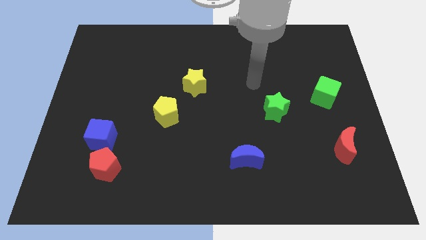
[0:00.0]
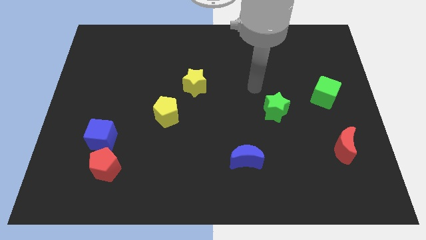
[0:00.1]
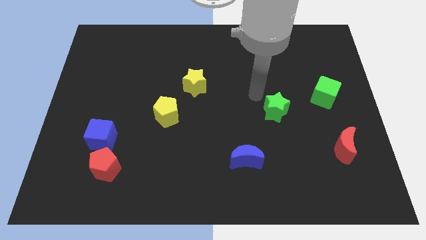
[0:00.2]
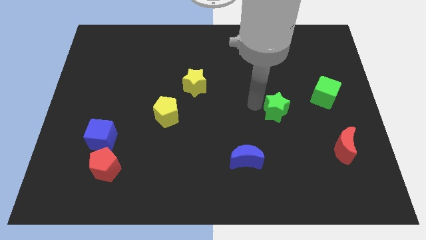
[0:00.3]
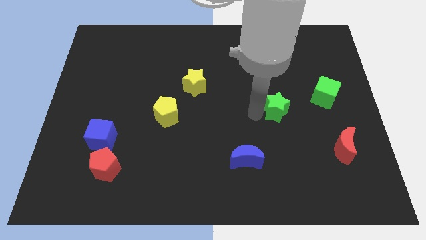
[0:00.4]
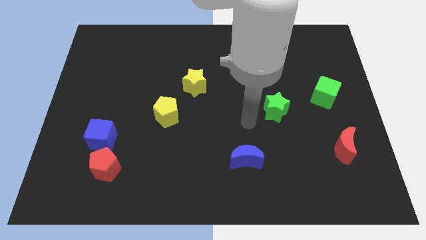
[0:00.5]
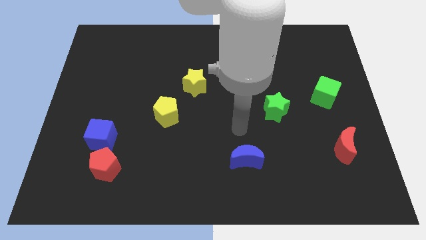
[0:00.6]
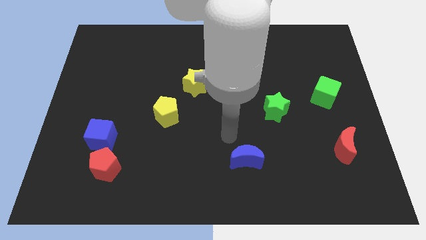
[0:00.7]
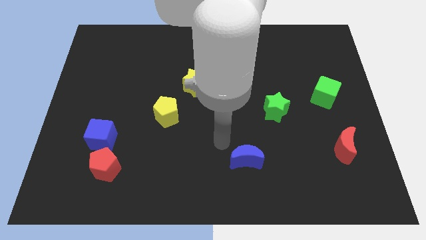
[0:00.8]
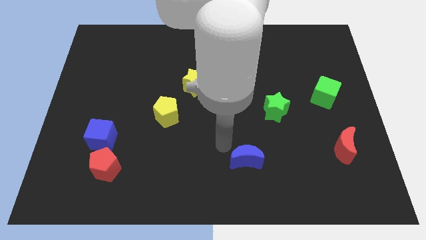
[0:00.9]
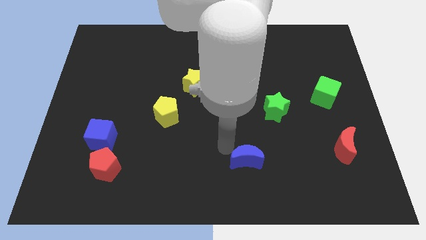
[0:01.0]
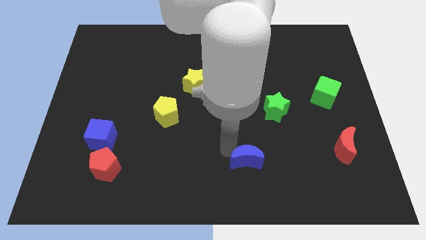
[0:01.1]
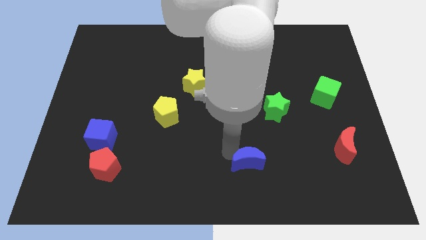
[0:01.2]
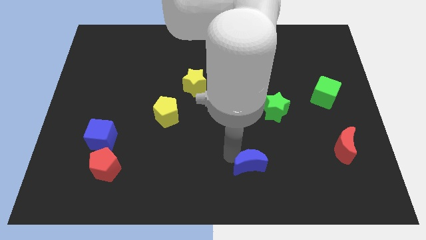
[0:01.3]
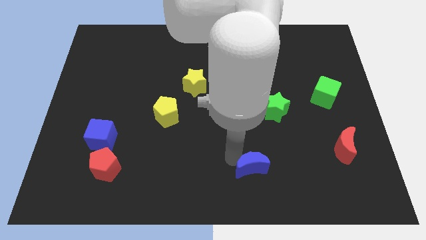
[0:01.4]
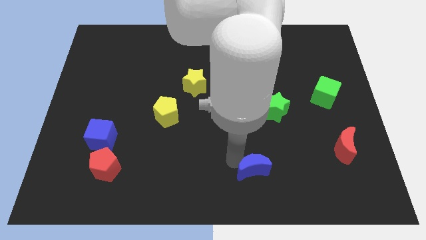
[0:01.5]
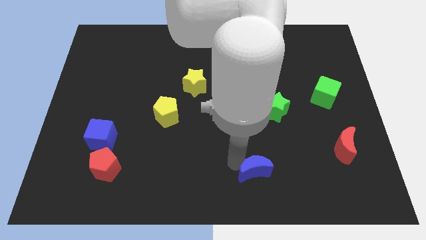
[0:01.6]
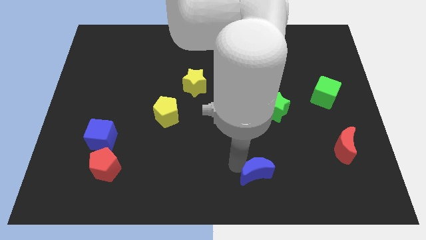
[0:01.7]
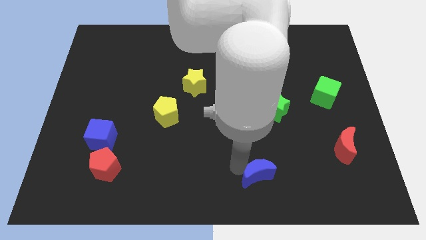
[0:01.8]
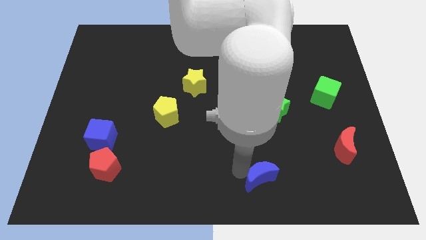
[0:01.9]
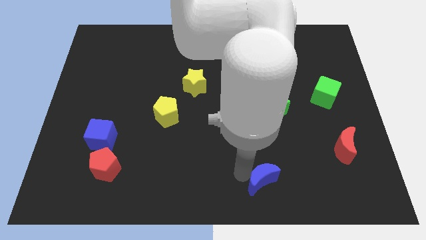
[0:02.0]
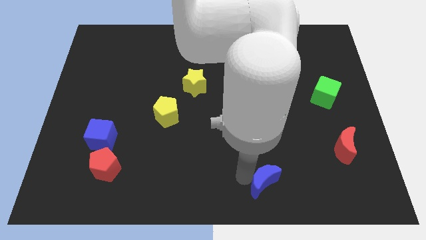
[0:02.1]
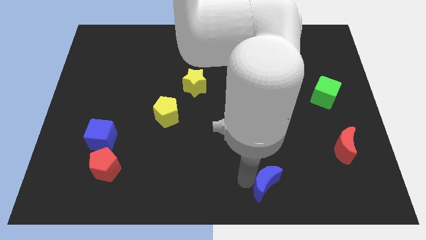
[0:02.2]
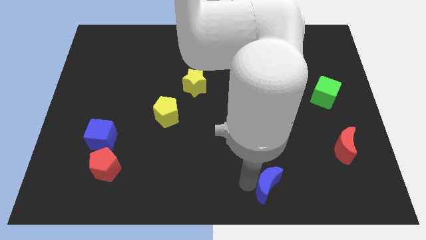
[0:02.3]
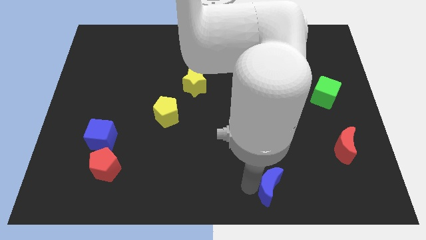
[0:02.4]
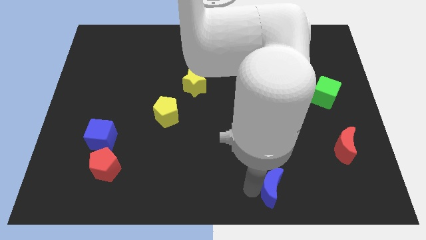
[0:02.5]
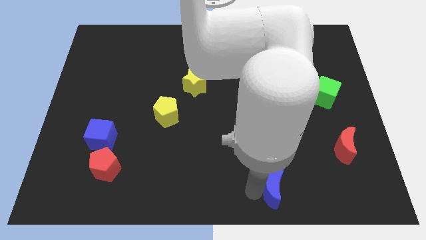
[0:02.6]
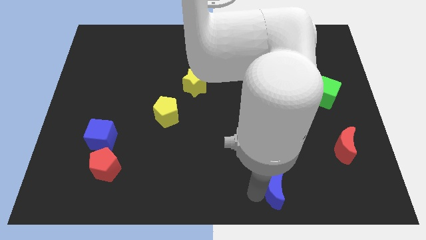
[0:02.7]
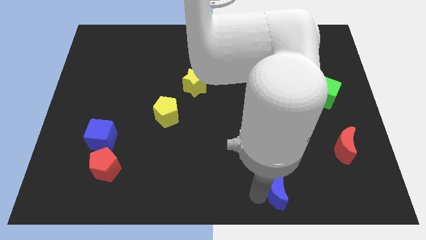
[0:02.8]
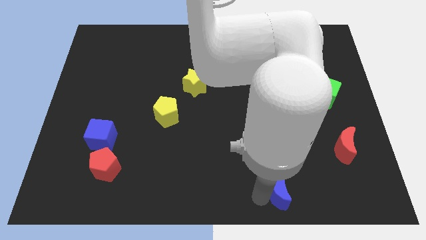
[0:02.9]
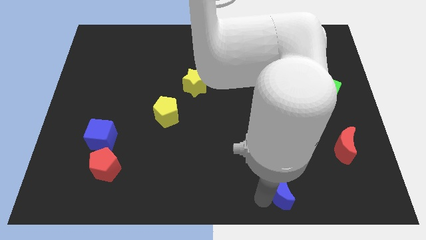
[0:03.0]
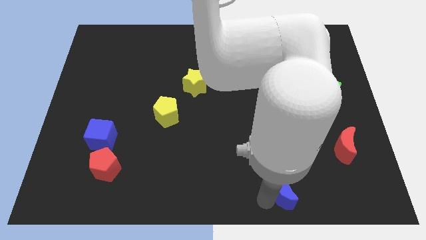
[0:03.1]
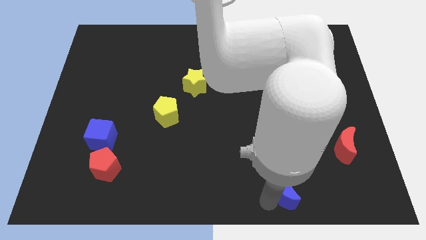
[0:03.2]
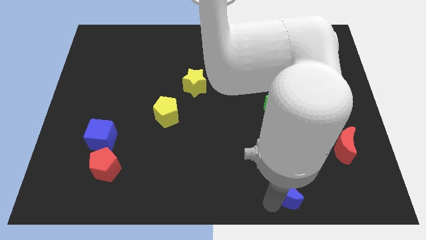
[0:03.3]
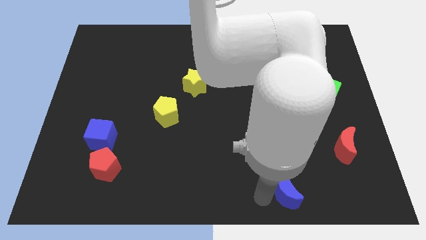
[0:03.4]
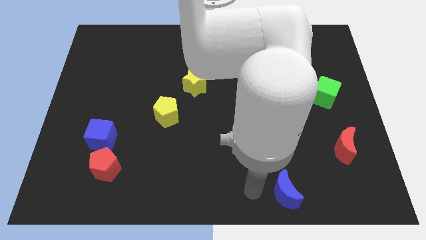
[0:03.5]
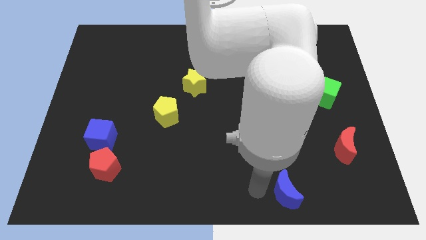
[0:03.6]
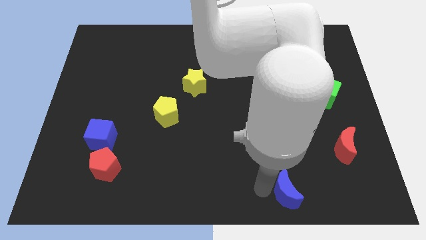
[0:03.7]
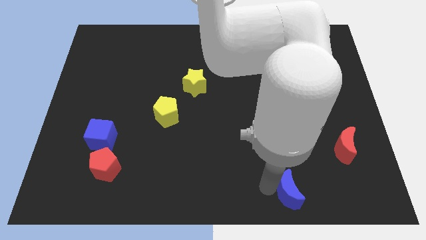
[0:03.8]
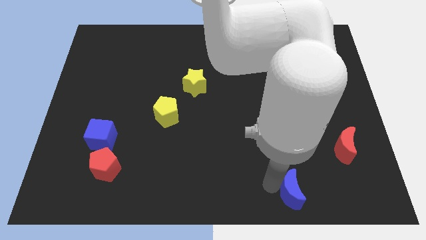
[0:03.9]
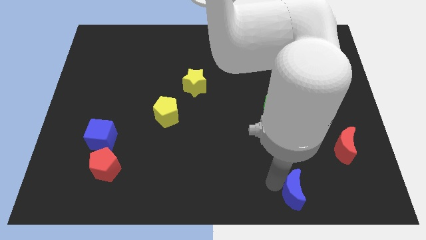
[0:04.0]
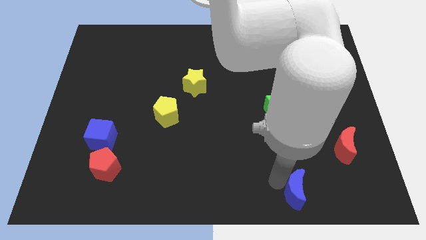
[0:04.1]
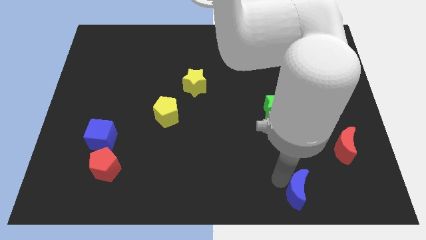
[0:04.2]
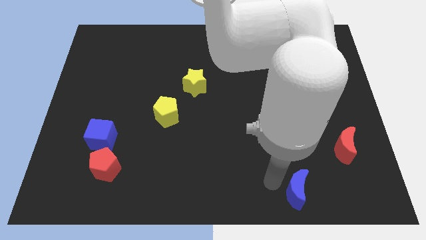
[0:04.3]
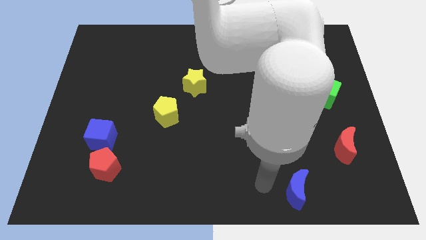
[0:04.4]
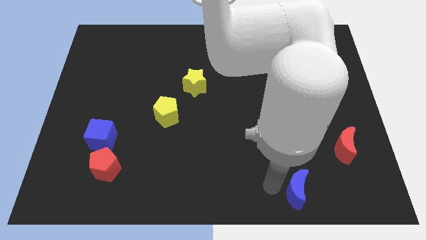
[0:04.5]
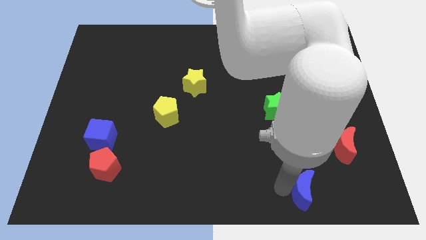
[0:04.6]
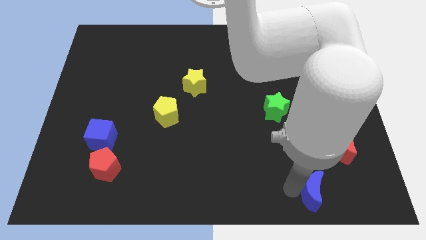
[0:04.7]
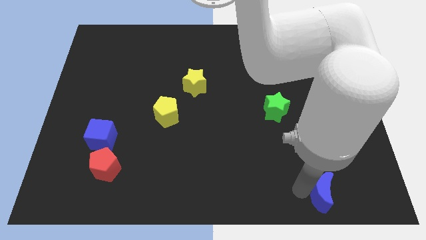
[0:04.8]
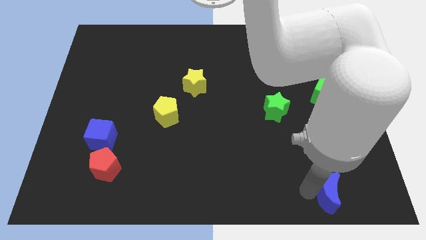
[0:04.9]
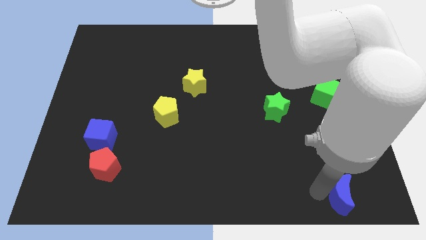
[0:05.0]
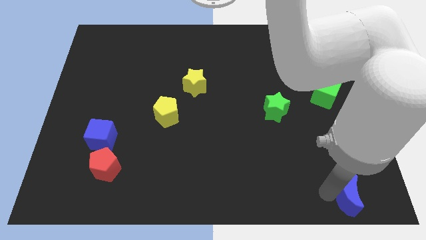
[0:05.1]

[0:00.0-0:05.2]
move the blue moon to the bottom right

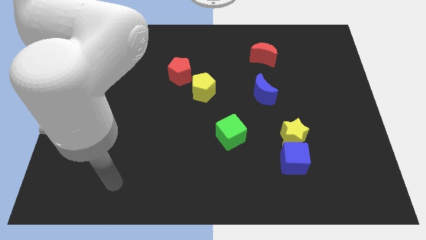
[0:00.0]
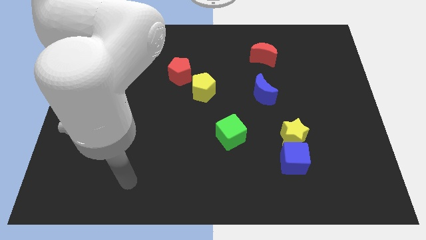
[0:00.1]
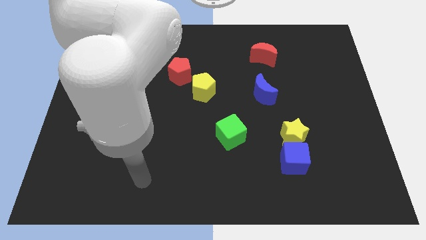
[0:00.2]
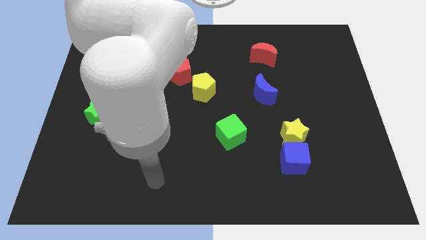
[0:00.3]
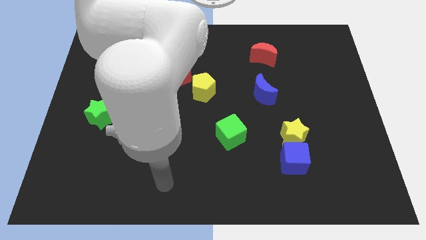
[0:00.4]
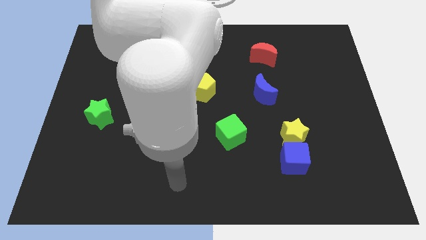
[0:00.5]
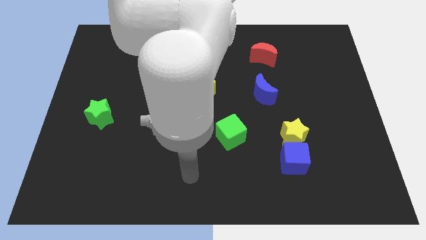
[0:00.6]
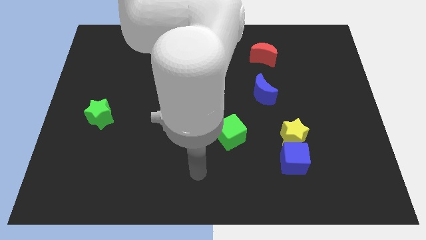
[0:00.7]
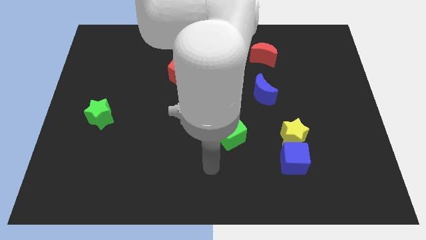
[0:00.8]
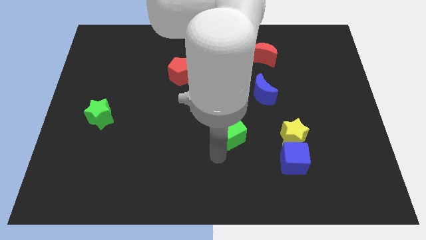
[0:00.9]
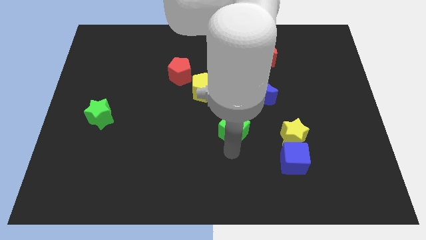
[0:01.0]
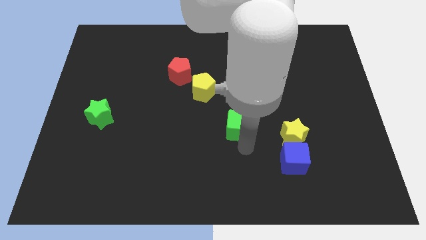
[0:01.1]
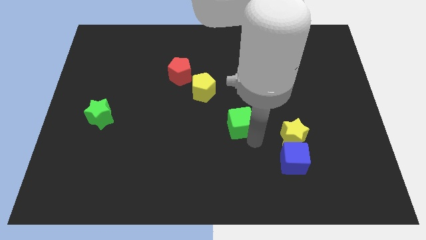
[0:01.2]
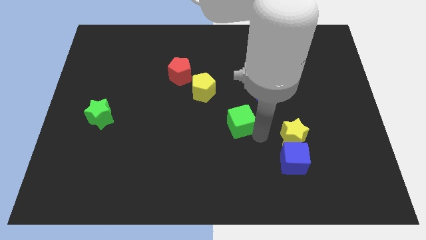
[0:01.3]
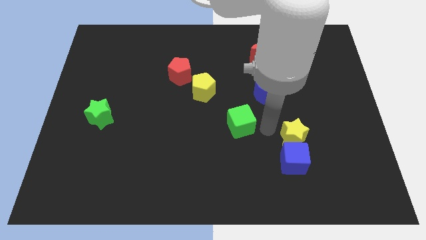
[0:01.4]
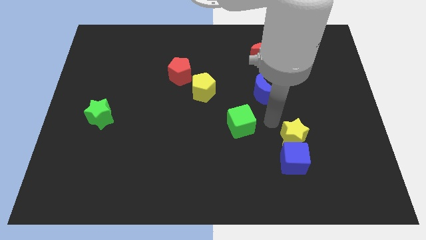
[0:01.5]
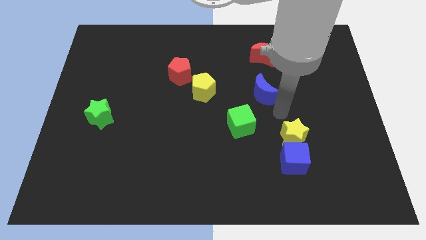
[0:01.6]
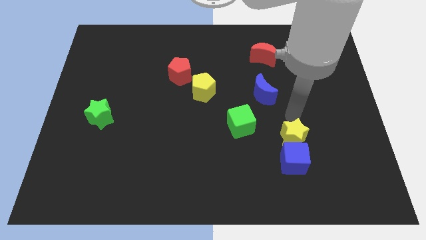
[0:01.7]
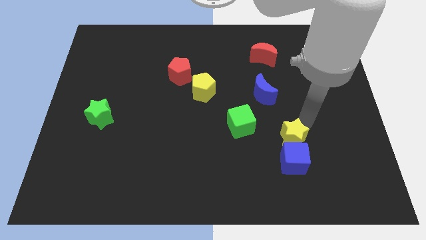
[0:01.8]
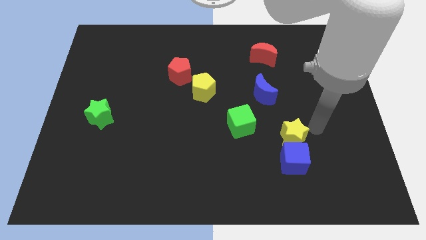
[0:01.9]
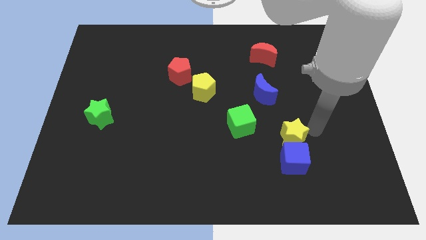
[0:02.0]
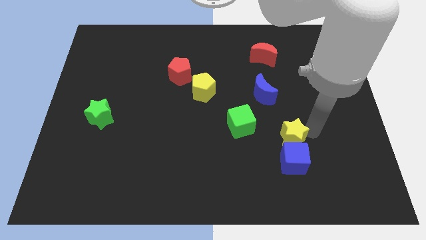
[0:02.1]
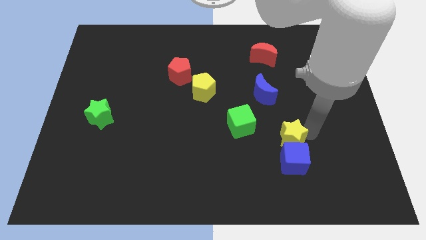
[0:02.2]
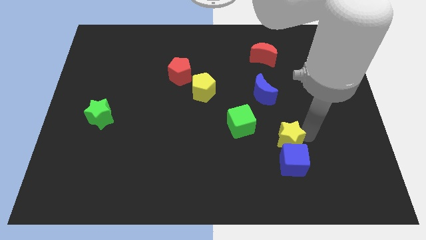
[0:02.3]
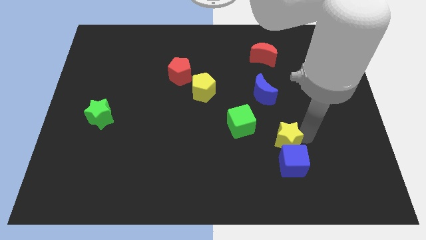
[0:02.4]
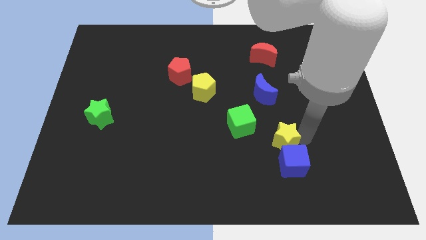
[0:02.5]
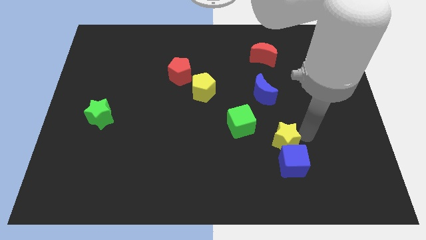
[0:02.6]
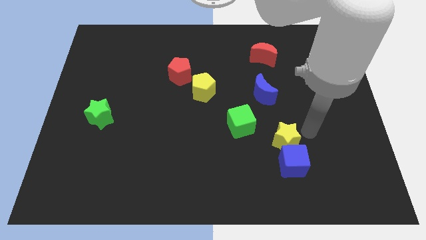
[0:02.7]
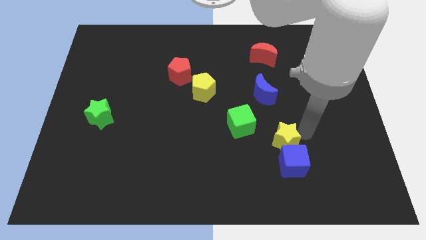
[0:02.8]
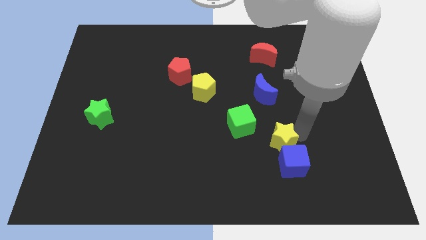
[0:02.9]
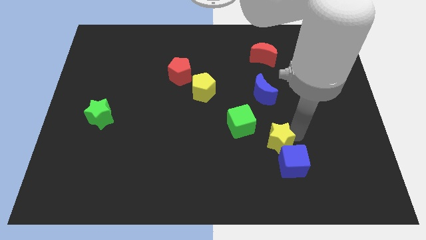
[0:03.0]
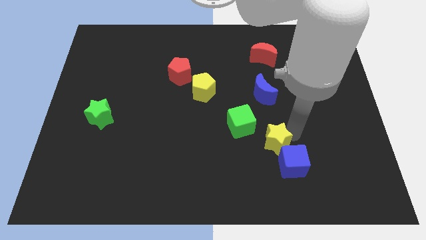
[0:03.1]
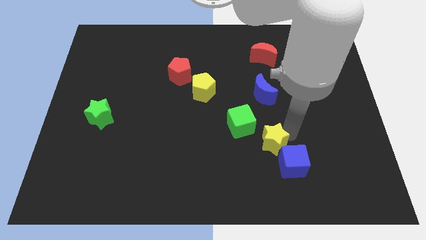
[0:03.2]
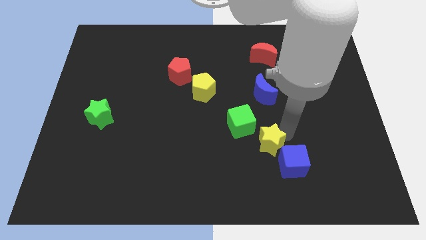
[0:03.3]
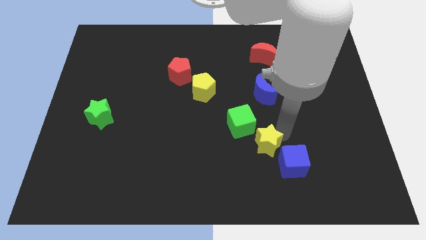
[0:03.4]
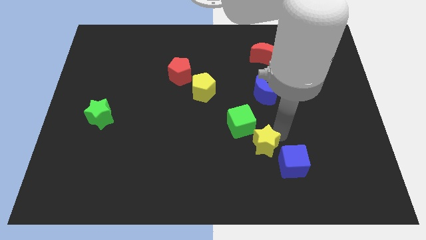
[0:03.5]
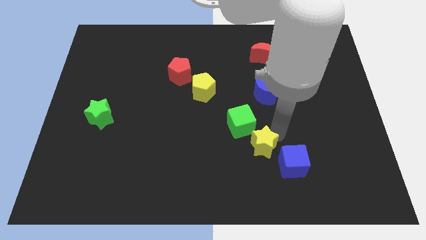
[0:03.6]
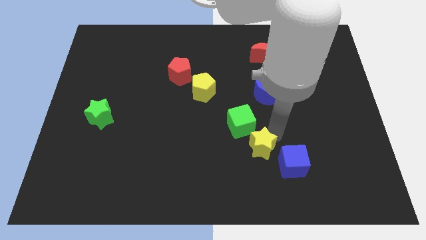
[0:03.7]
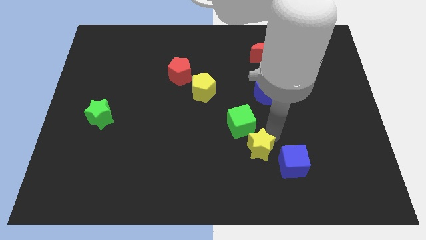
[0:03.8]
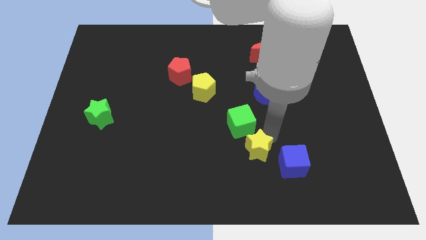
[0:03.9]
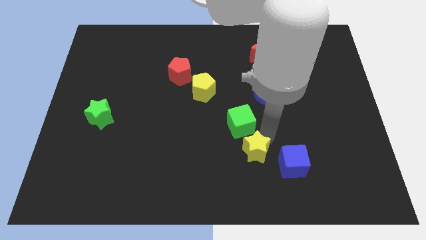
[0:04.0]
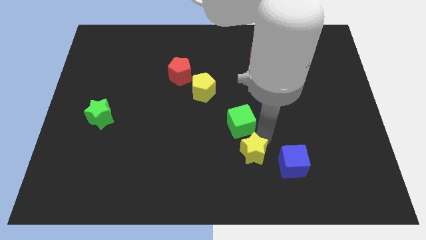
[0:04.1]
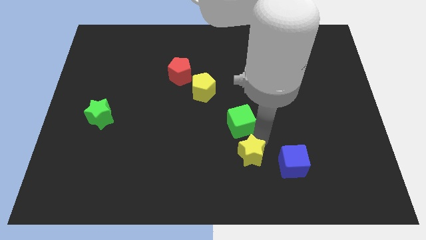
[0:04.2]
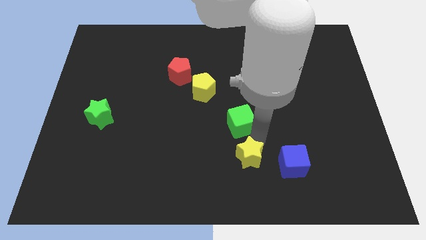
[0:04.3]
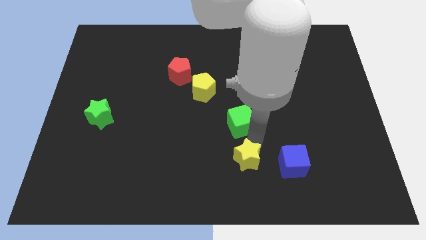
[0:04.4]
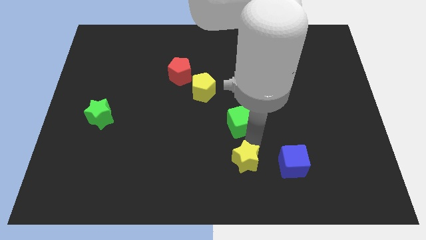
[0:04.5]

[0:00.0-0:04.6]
put the yellow star to the bottom side
